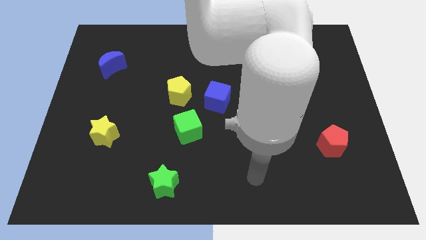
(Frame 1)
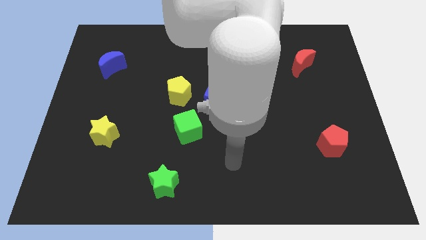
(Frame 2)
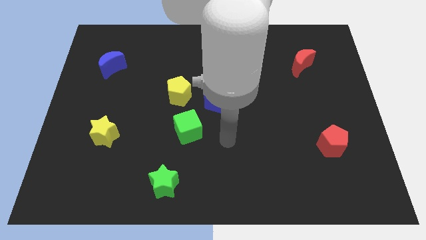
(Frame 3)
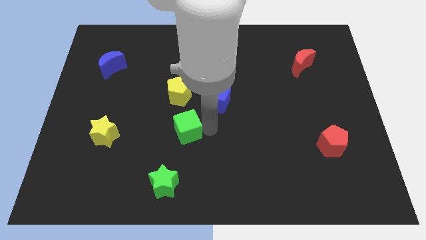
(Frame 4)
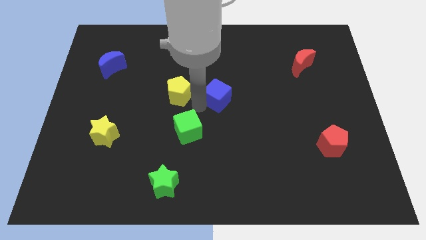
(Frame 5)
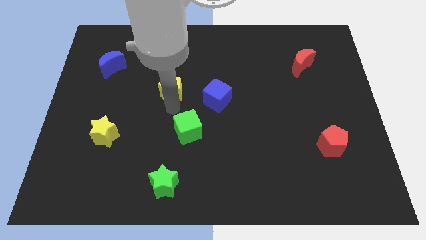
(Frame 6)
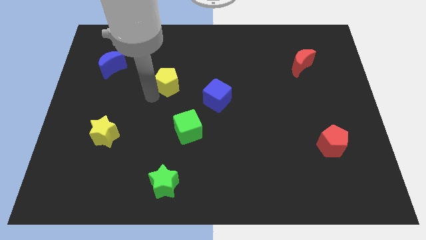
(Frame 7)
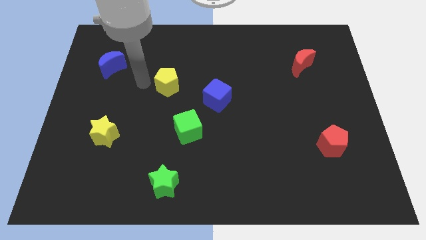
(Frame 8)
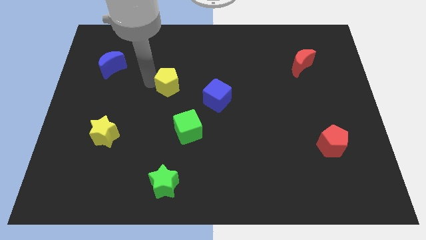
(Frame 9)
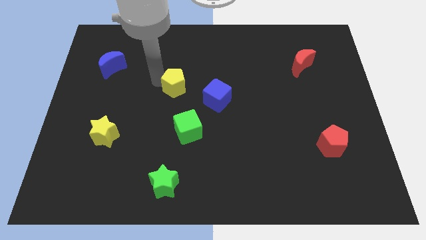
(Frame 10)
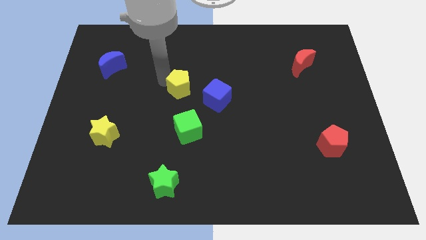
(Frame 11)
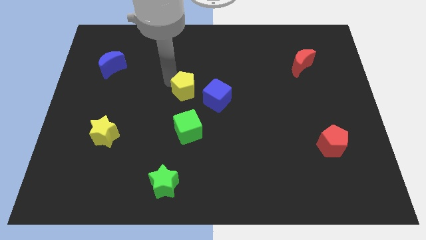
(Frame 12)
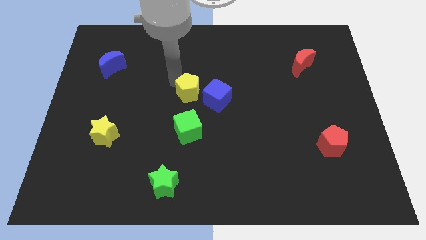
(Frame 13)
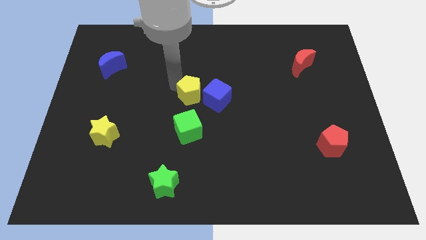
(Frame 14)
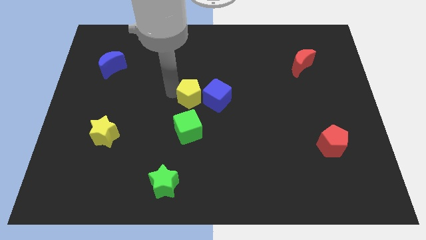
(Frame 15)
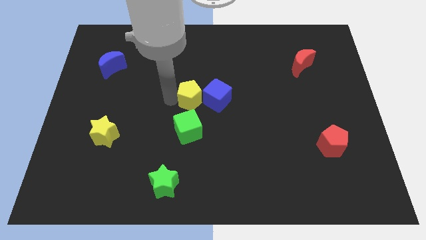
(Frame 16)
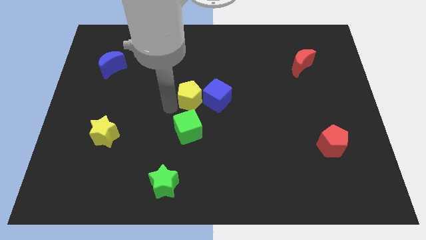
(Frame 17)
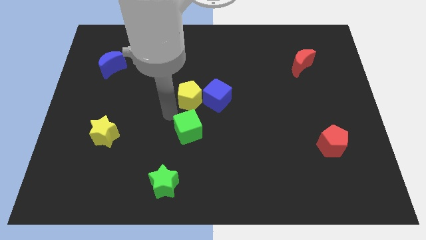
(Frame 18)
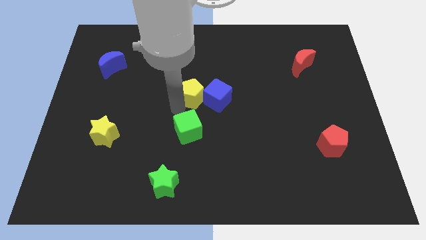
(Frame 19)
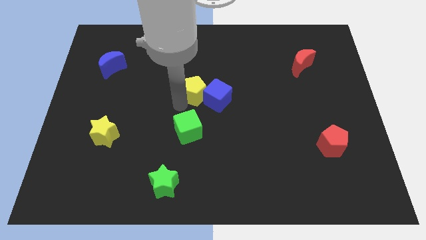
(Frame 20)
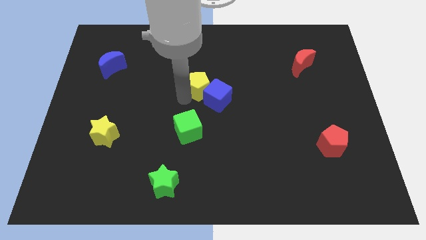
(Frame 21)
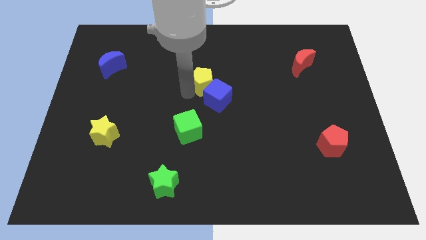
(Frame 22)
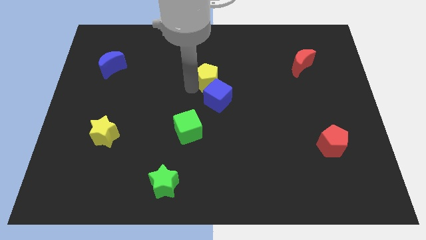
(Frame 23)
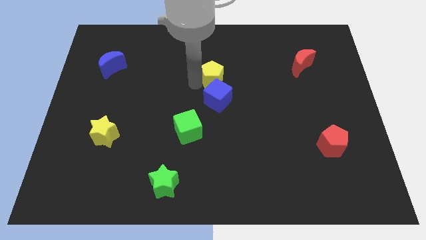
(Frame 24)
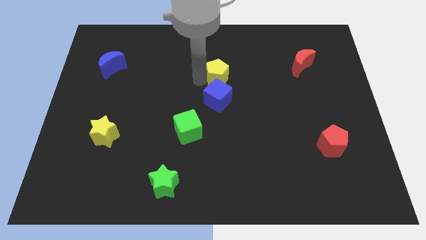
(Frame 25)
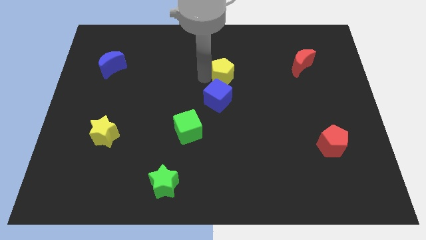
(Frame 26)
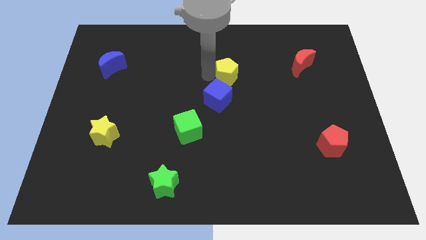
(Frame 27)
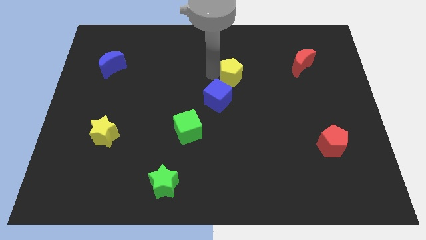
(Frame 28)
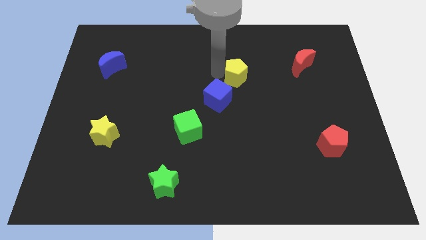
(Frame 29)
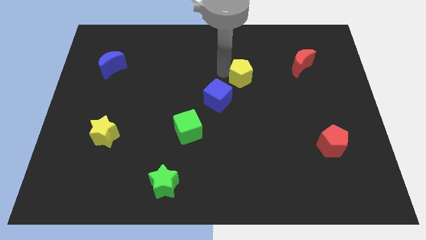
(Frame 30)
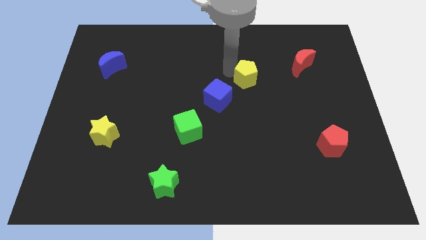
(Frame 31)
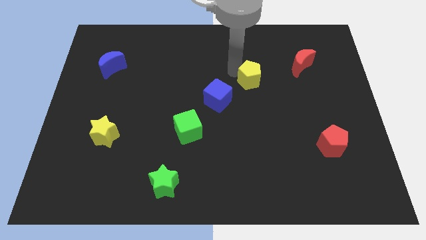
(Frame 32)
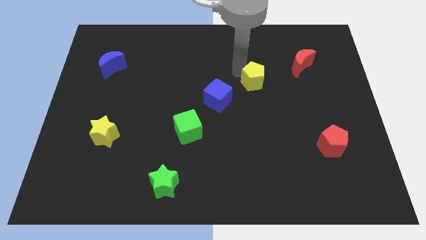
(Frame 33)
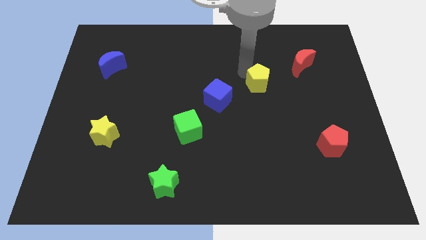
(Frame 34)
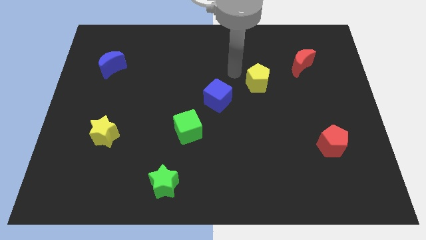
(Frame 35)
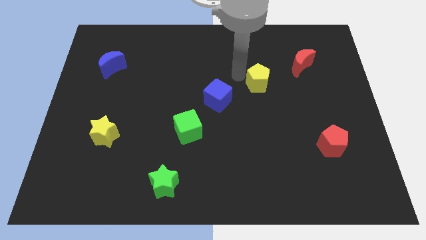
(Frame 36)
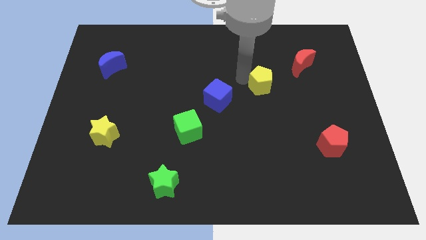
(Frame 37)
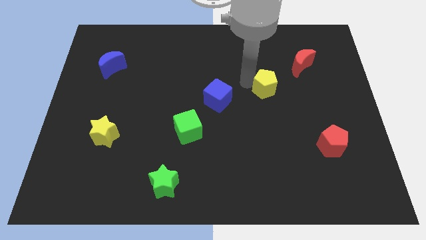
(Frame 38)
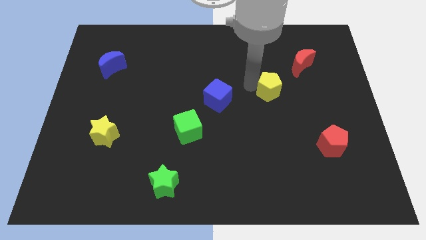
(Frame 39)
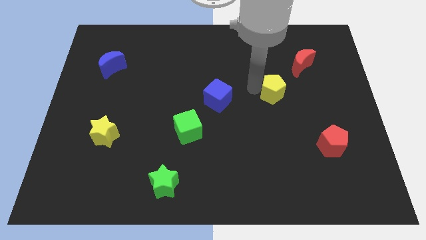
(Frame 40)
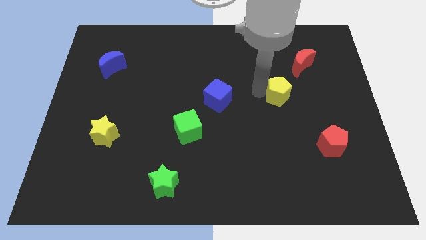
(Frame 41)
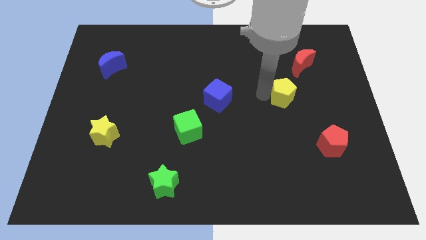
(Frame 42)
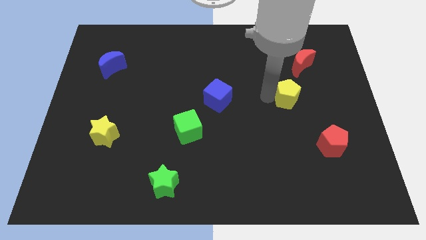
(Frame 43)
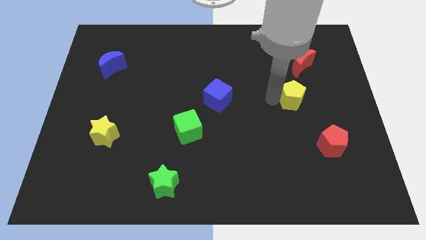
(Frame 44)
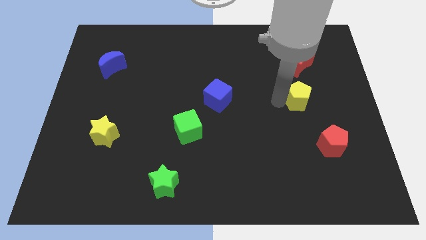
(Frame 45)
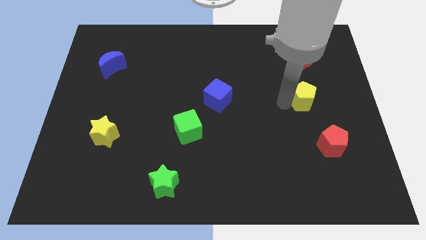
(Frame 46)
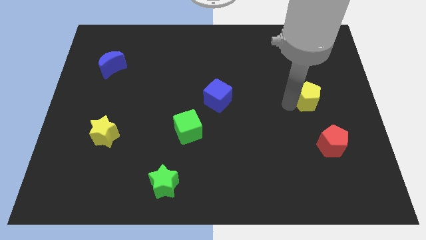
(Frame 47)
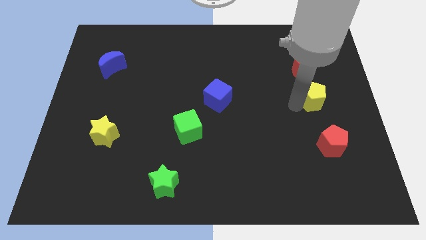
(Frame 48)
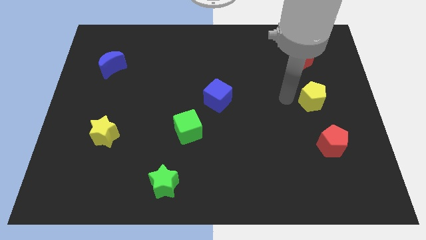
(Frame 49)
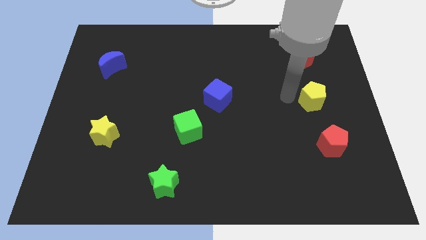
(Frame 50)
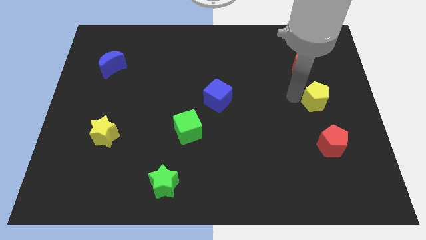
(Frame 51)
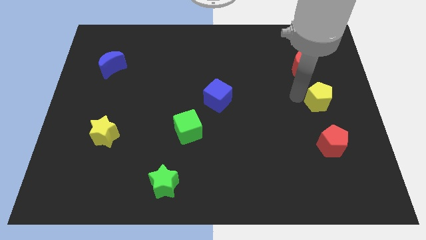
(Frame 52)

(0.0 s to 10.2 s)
put the yellow pentagon to the center right

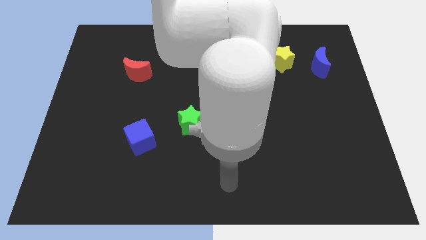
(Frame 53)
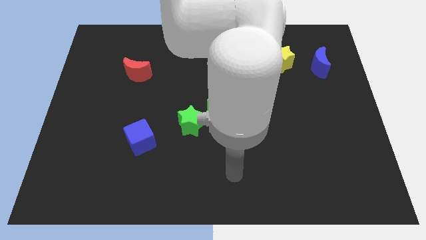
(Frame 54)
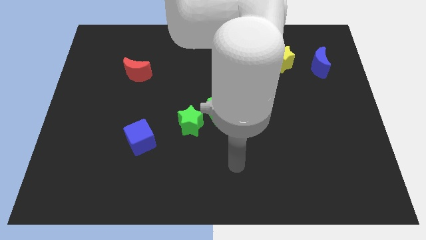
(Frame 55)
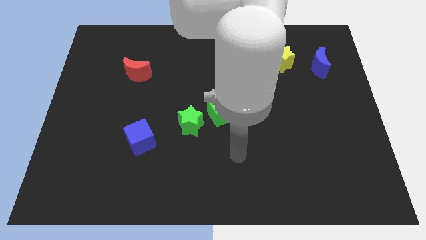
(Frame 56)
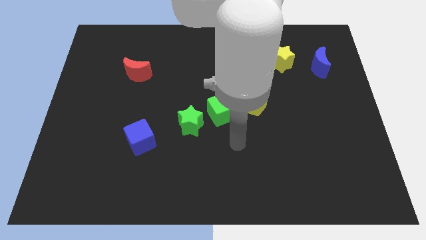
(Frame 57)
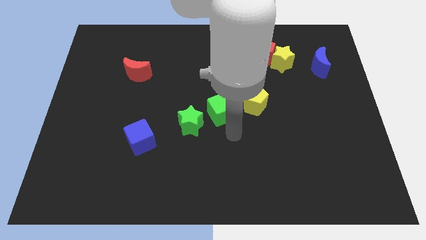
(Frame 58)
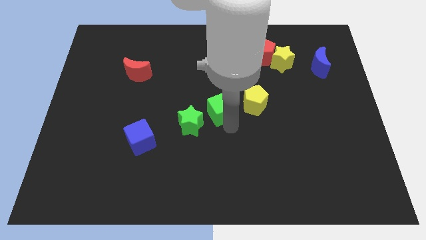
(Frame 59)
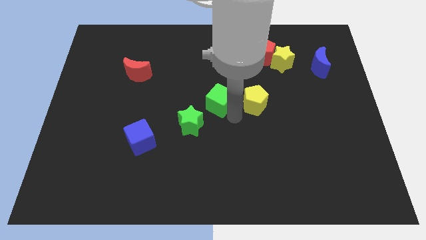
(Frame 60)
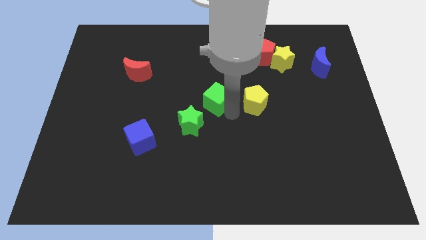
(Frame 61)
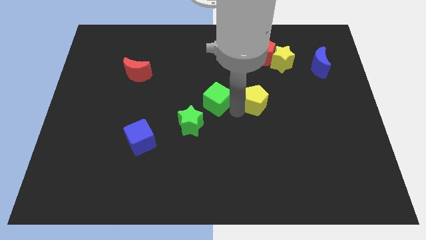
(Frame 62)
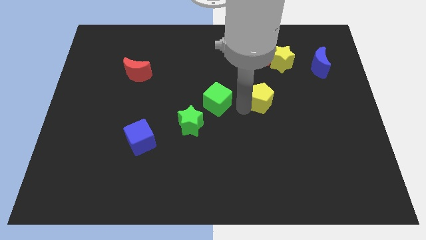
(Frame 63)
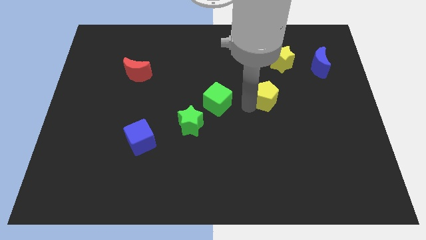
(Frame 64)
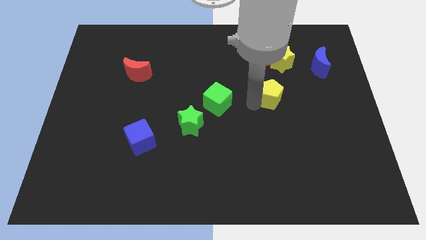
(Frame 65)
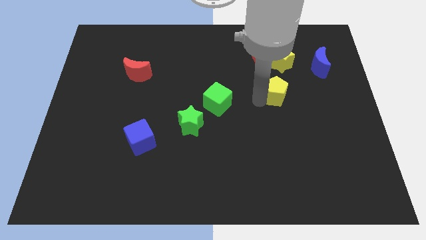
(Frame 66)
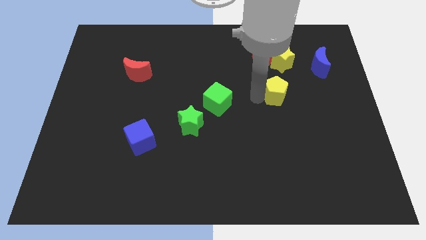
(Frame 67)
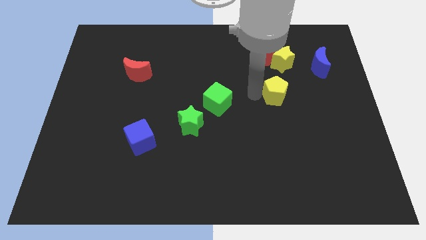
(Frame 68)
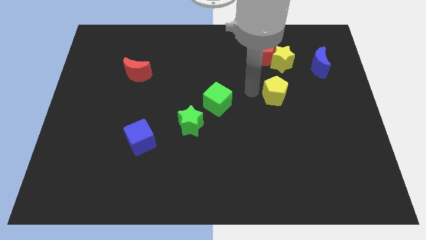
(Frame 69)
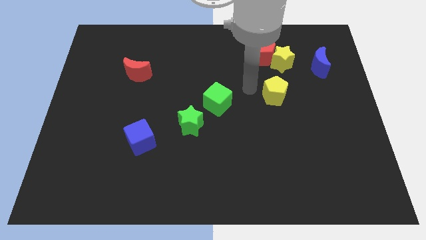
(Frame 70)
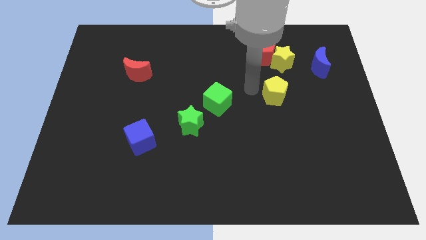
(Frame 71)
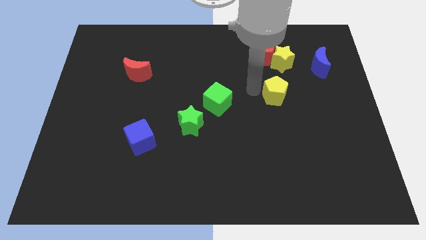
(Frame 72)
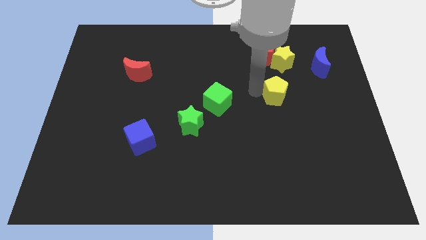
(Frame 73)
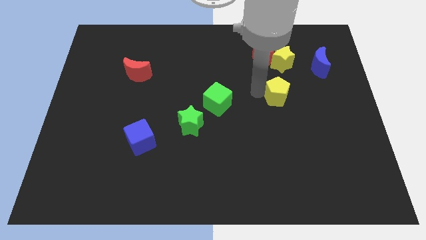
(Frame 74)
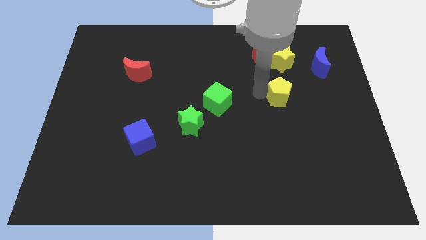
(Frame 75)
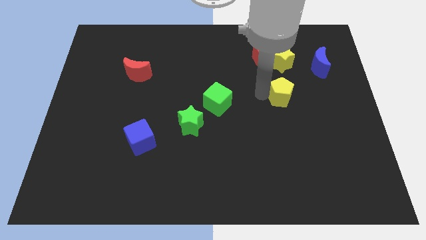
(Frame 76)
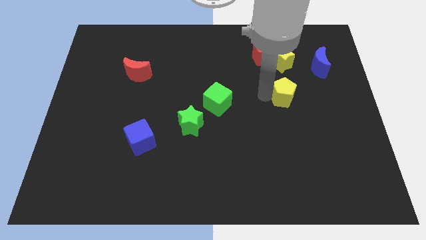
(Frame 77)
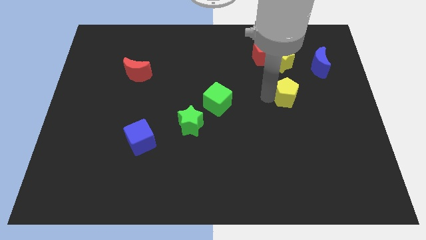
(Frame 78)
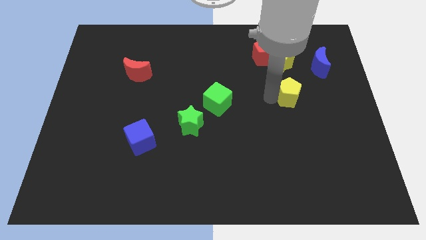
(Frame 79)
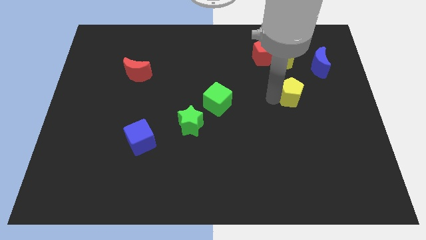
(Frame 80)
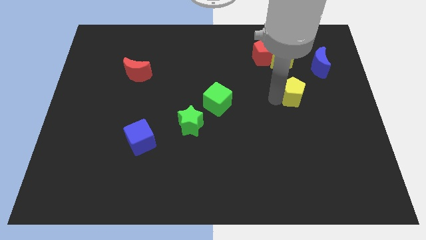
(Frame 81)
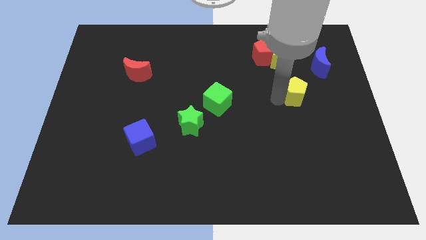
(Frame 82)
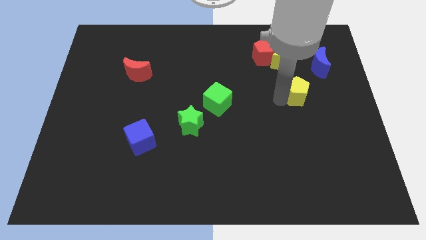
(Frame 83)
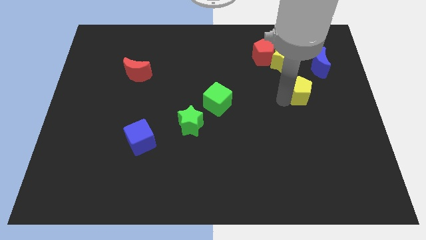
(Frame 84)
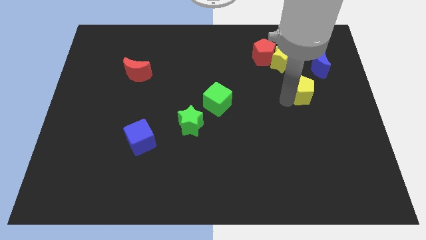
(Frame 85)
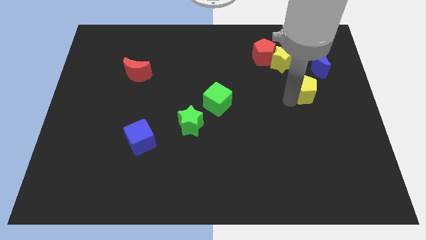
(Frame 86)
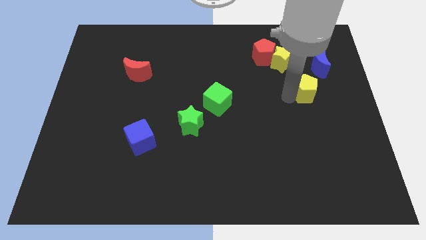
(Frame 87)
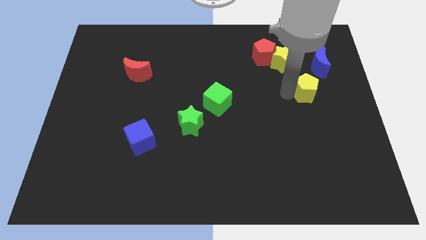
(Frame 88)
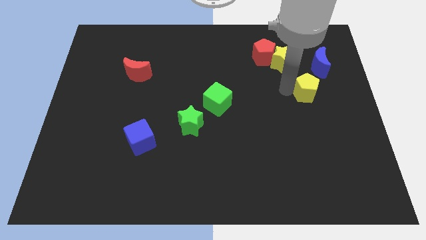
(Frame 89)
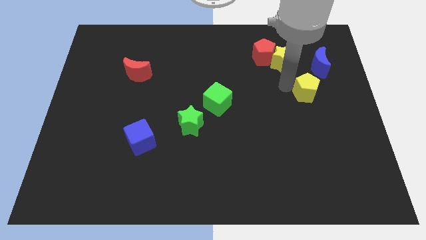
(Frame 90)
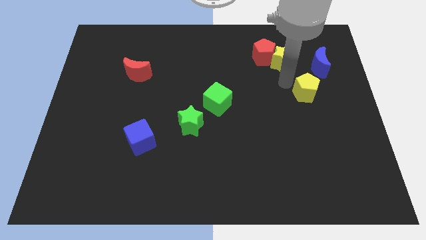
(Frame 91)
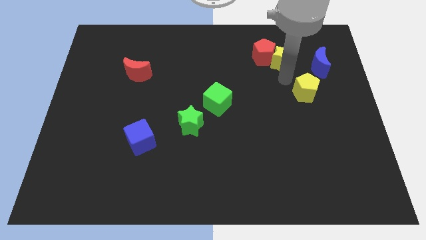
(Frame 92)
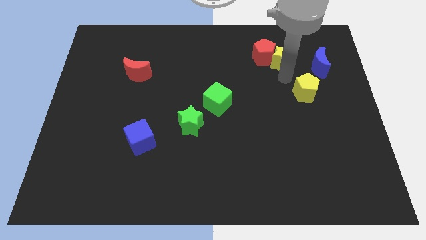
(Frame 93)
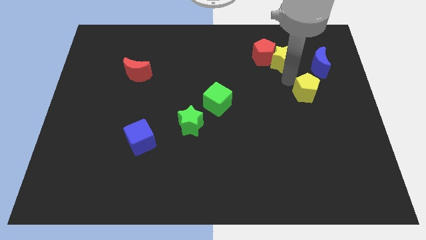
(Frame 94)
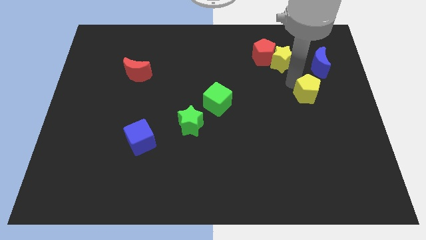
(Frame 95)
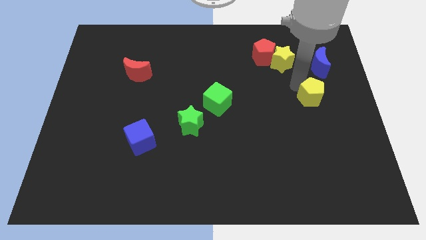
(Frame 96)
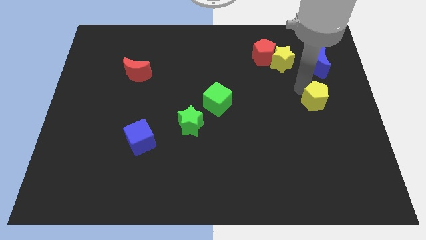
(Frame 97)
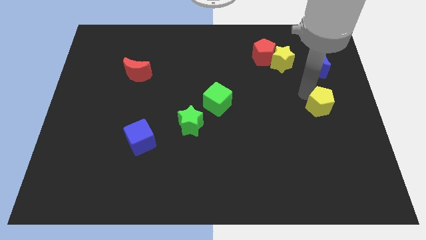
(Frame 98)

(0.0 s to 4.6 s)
slide the yellow pentagon to the right side
